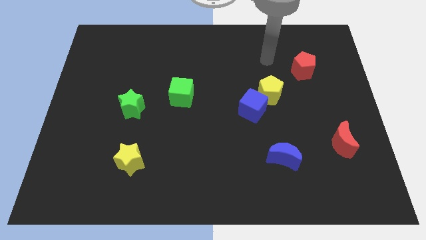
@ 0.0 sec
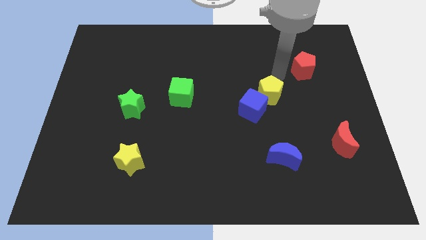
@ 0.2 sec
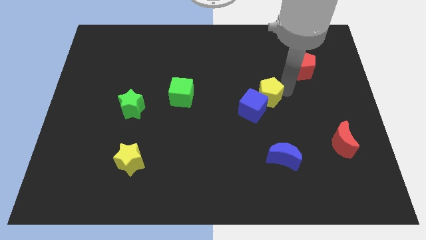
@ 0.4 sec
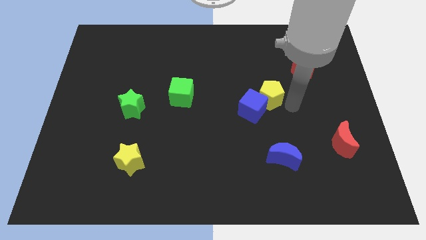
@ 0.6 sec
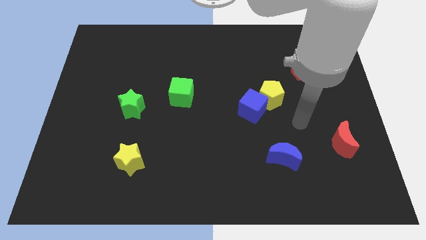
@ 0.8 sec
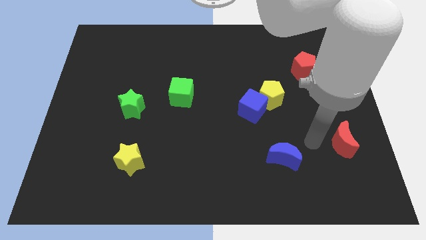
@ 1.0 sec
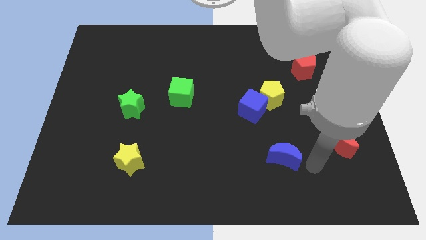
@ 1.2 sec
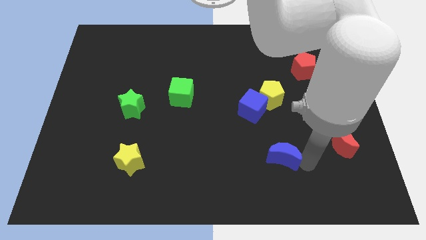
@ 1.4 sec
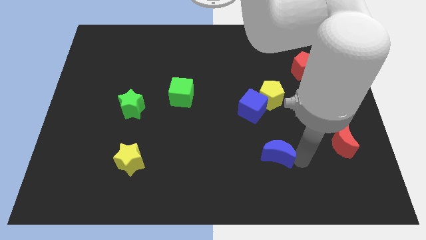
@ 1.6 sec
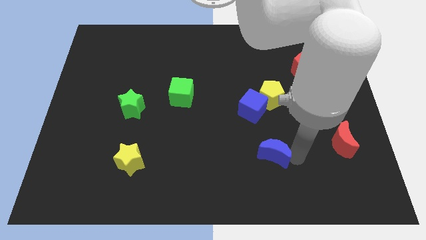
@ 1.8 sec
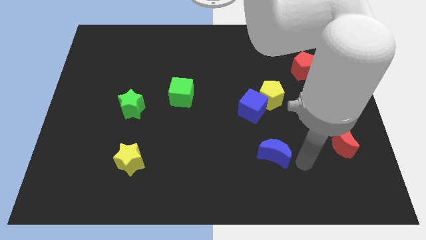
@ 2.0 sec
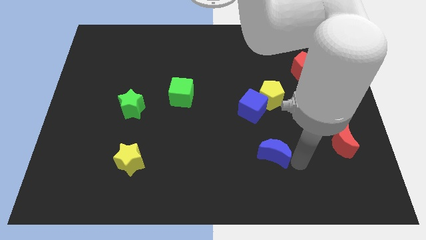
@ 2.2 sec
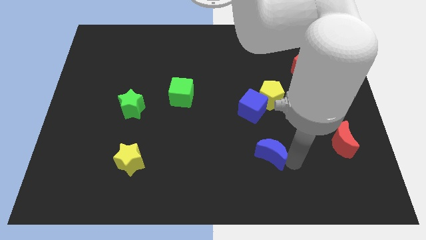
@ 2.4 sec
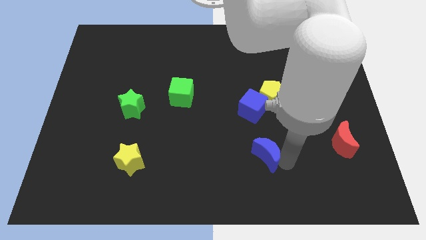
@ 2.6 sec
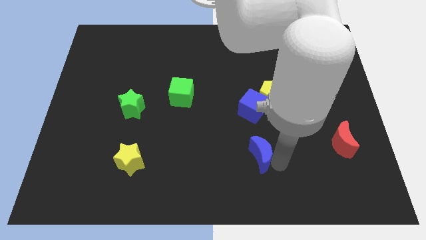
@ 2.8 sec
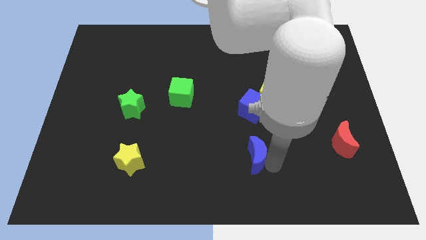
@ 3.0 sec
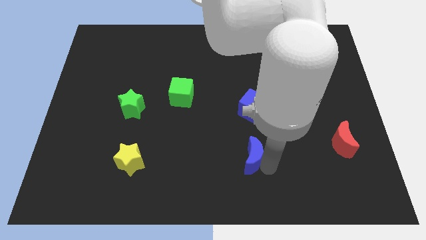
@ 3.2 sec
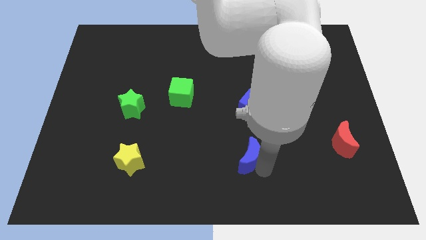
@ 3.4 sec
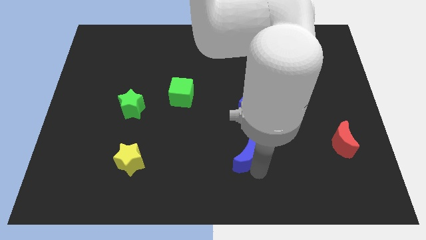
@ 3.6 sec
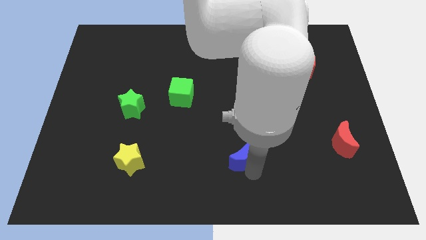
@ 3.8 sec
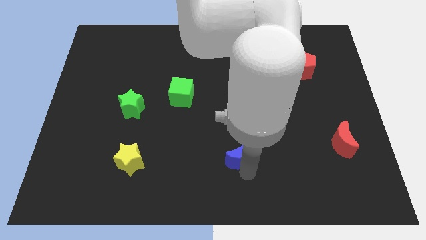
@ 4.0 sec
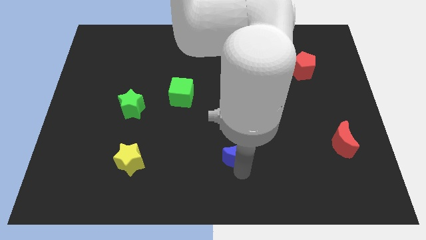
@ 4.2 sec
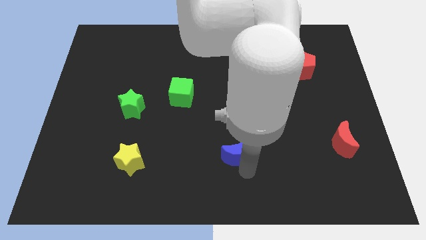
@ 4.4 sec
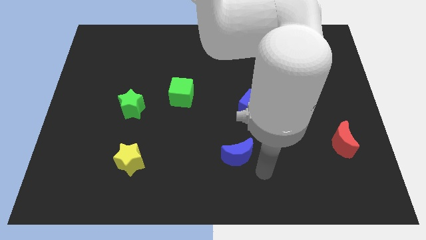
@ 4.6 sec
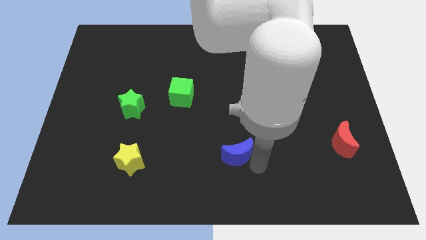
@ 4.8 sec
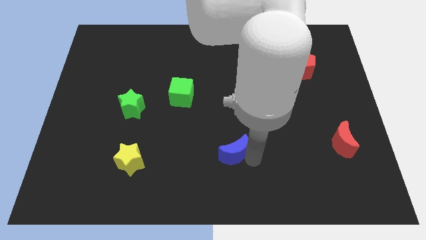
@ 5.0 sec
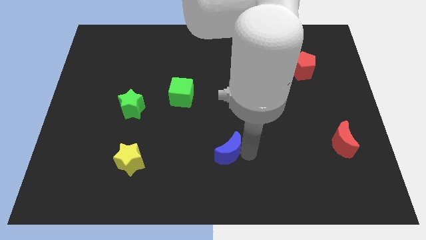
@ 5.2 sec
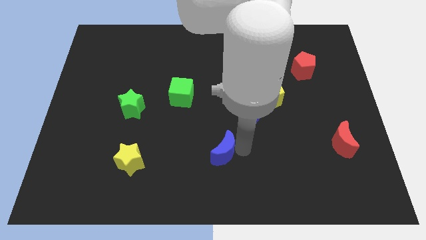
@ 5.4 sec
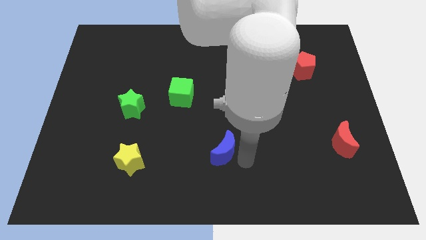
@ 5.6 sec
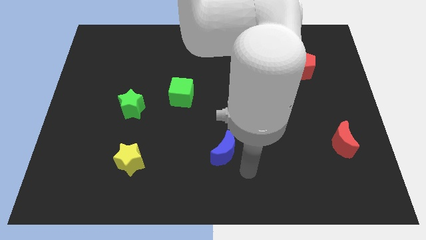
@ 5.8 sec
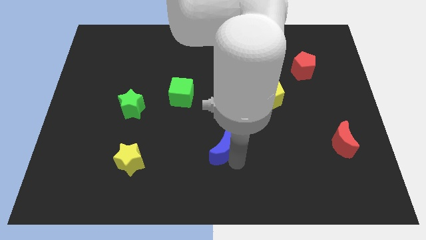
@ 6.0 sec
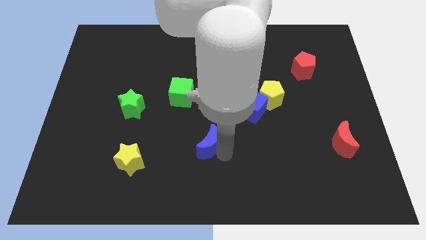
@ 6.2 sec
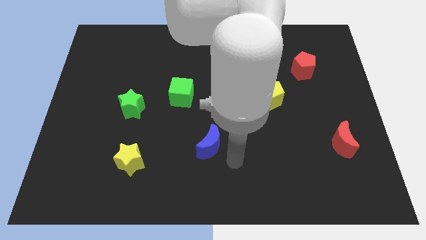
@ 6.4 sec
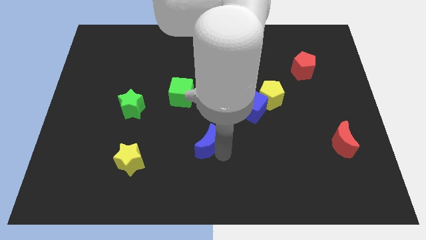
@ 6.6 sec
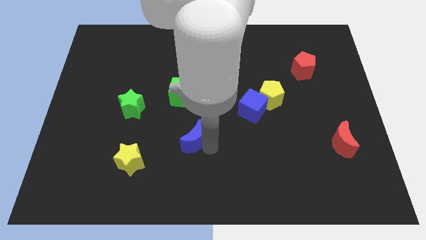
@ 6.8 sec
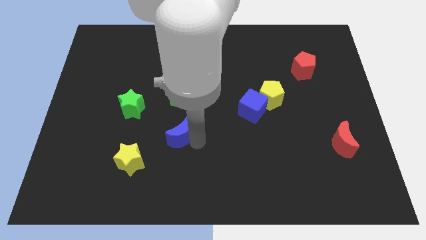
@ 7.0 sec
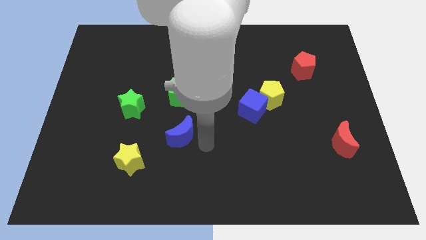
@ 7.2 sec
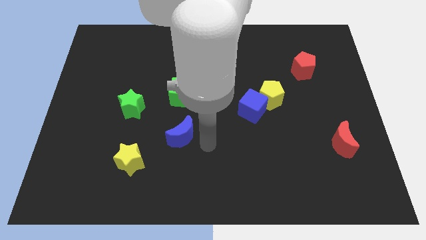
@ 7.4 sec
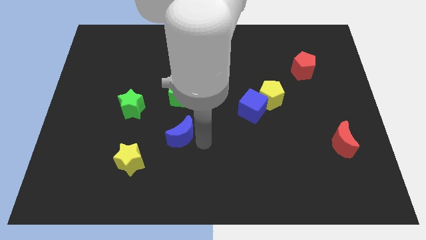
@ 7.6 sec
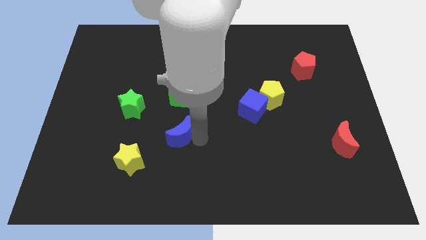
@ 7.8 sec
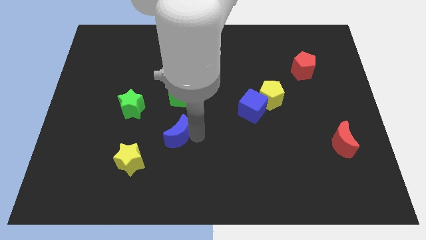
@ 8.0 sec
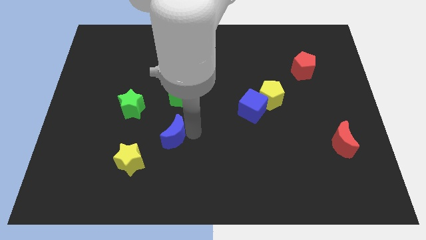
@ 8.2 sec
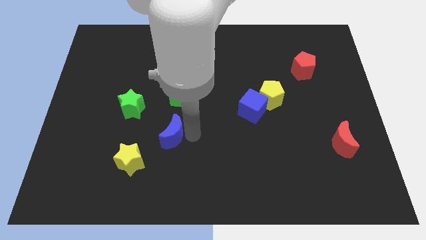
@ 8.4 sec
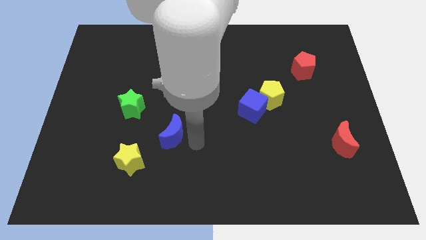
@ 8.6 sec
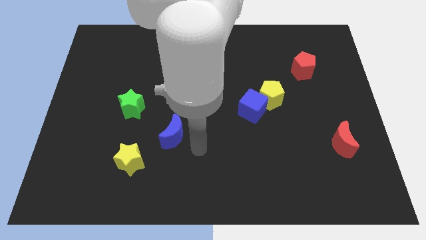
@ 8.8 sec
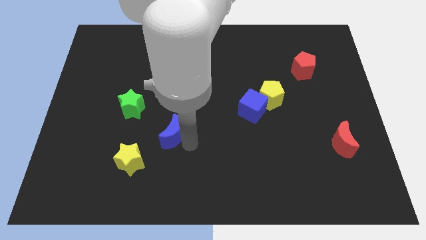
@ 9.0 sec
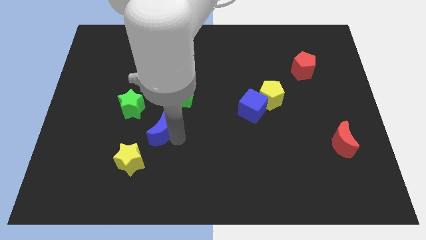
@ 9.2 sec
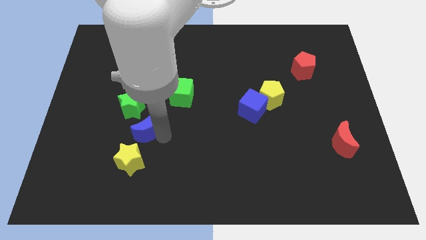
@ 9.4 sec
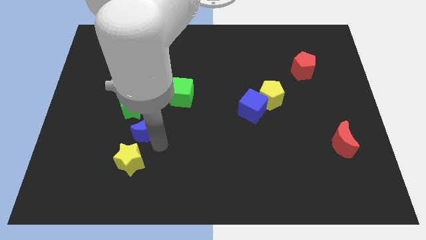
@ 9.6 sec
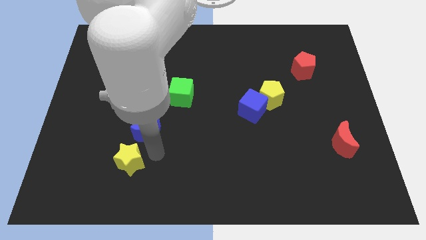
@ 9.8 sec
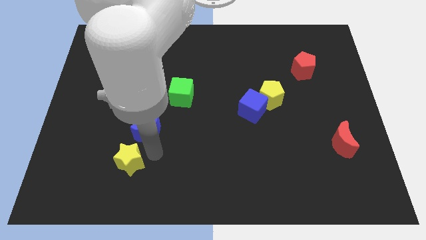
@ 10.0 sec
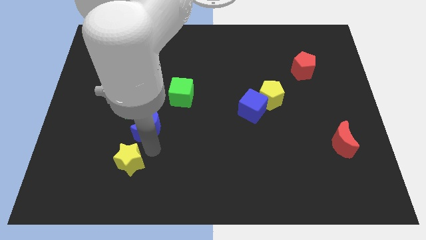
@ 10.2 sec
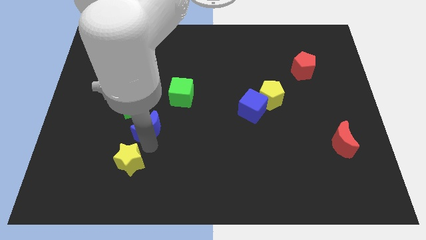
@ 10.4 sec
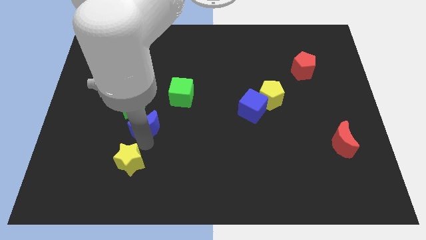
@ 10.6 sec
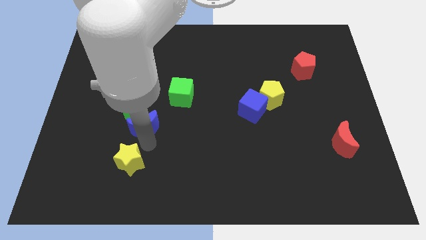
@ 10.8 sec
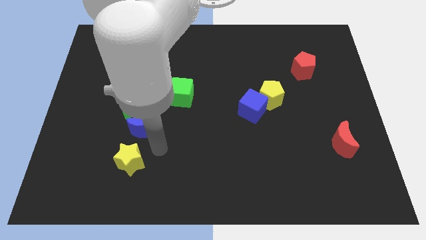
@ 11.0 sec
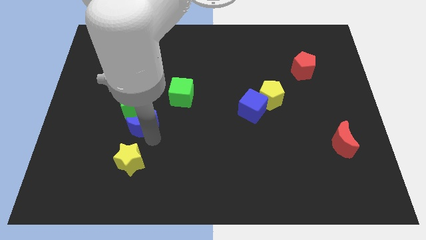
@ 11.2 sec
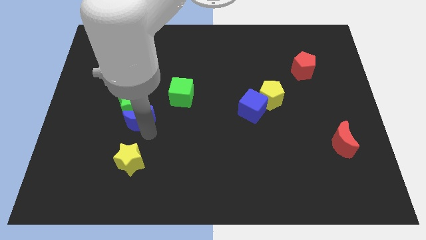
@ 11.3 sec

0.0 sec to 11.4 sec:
slide the blue moon to the green star

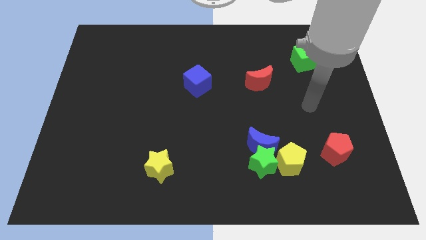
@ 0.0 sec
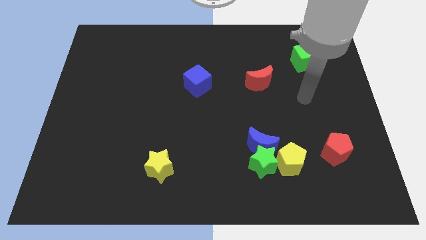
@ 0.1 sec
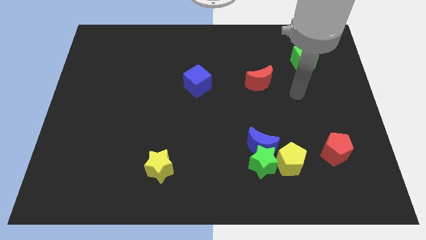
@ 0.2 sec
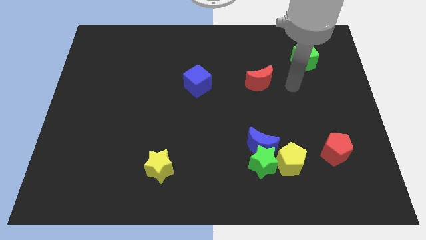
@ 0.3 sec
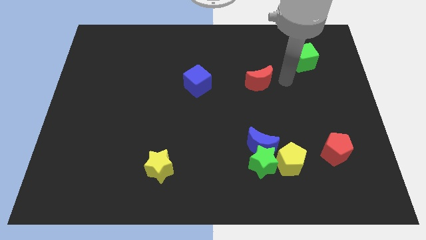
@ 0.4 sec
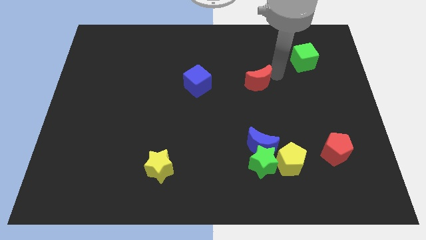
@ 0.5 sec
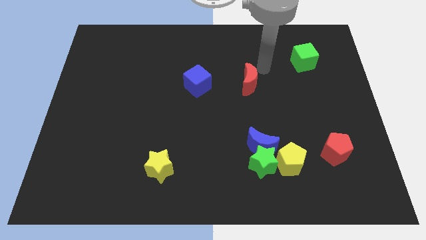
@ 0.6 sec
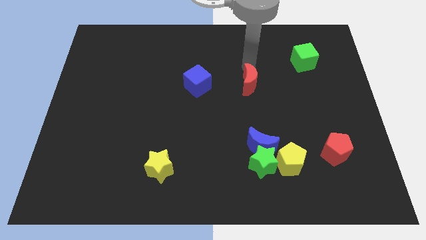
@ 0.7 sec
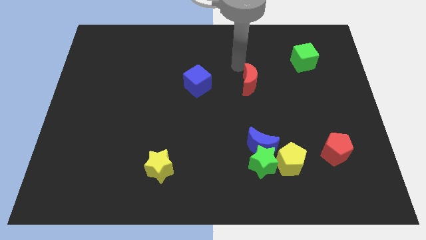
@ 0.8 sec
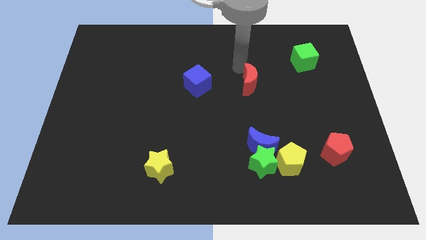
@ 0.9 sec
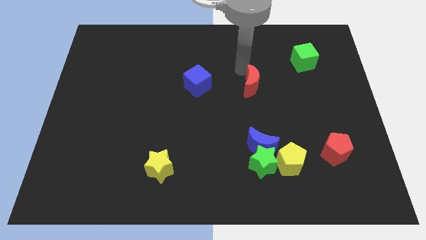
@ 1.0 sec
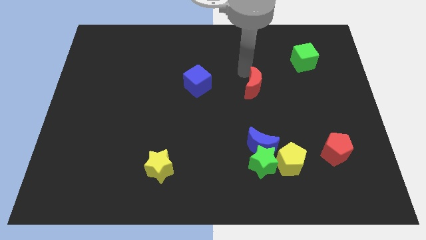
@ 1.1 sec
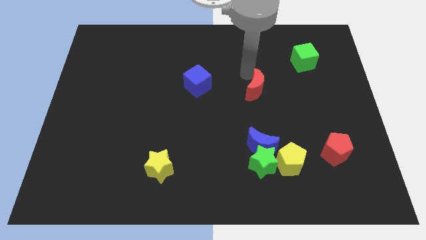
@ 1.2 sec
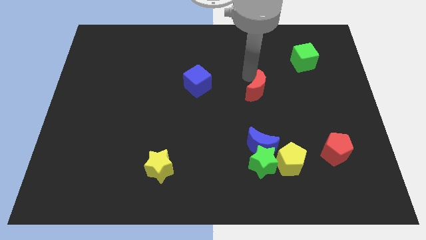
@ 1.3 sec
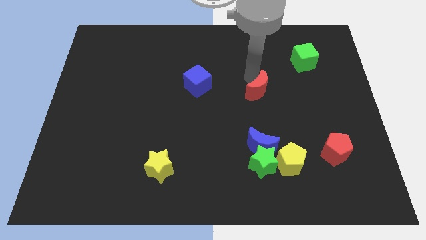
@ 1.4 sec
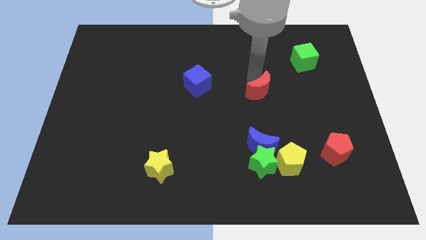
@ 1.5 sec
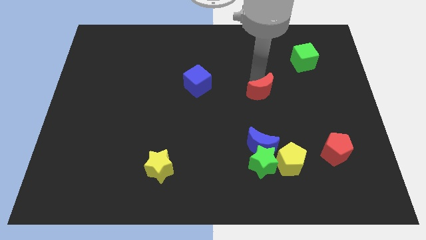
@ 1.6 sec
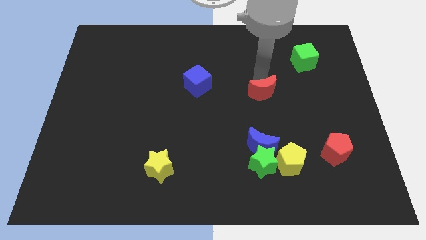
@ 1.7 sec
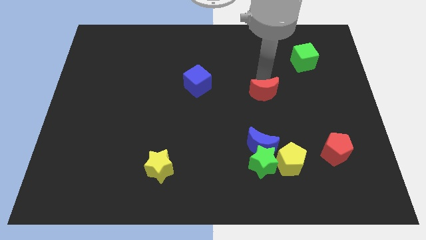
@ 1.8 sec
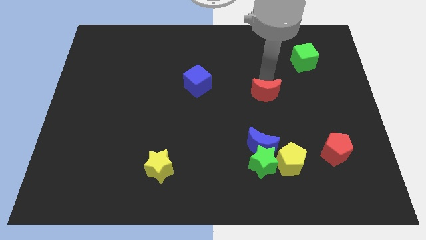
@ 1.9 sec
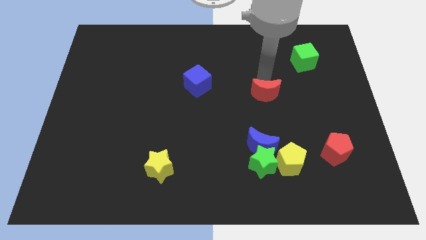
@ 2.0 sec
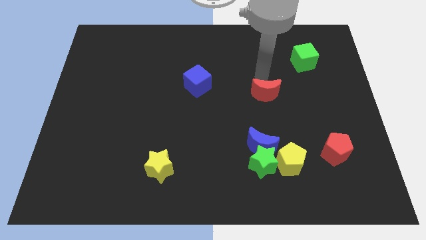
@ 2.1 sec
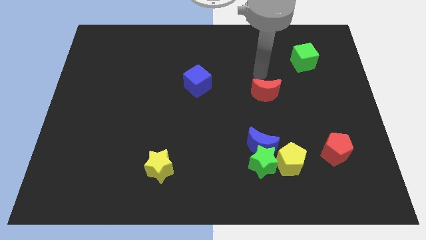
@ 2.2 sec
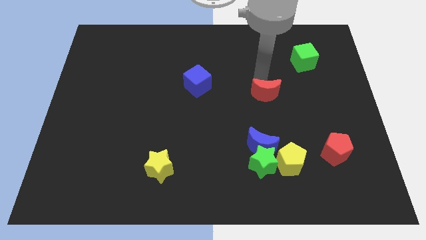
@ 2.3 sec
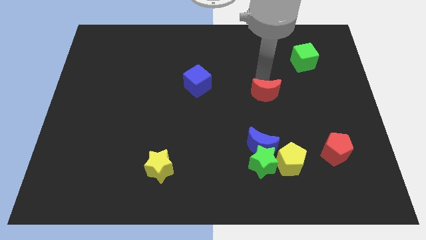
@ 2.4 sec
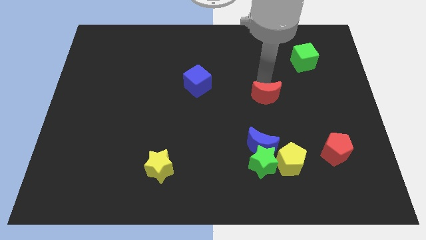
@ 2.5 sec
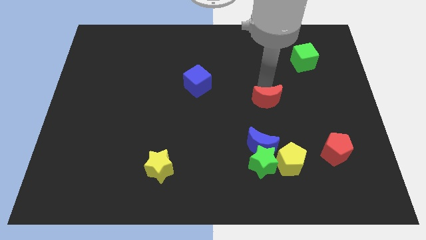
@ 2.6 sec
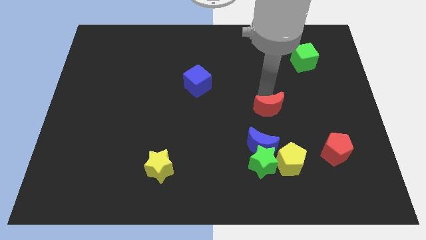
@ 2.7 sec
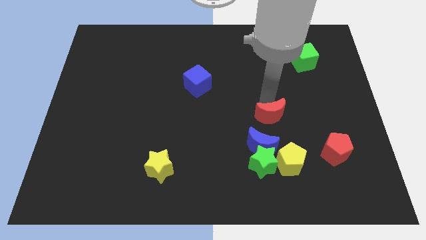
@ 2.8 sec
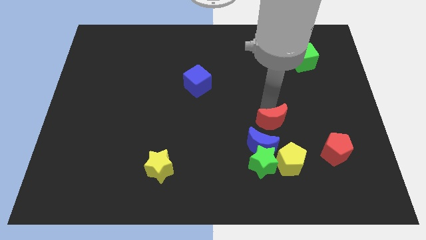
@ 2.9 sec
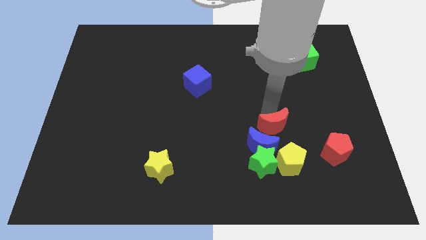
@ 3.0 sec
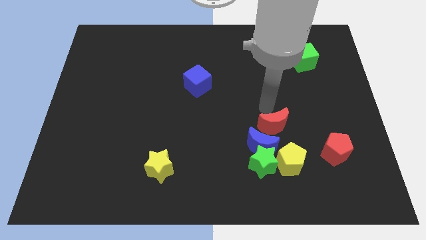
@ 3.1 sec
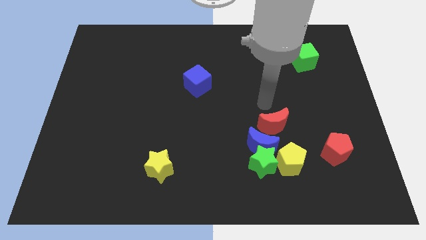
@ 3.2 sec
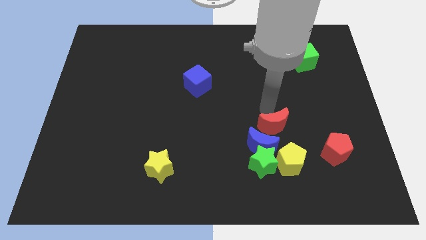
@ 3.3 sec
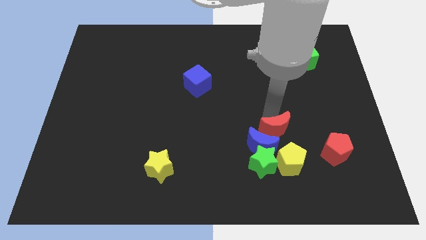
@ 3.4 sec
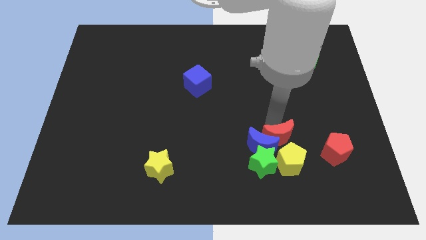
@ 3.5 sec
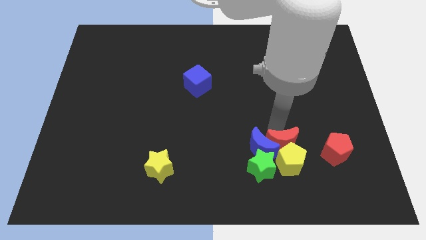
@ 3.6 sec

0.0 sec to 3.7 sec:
put the red moon close to the yellow pentagon
